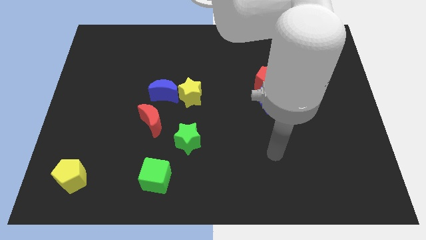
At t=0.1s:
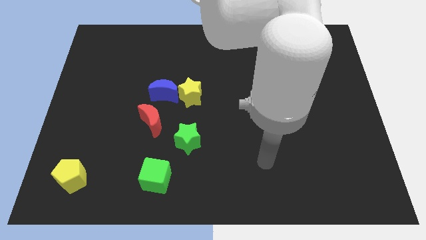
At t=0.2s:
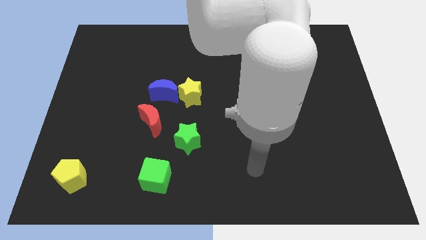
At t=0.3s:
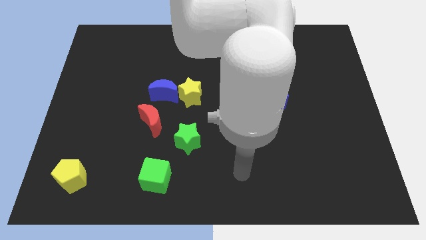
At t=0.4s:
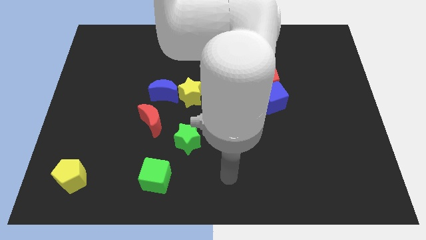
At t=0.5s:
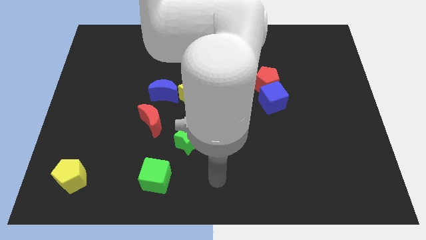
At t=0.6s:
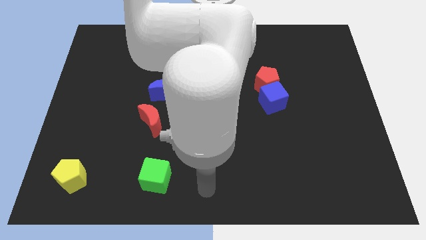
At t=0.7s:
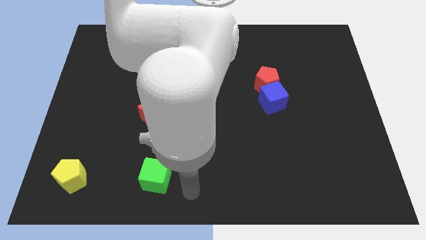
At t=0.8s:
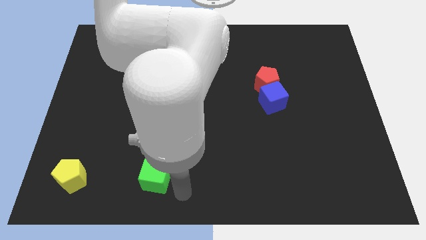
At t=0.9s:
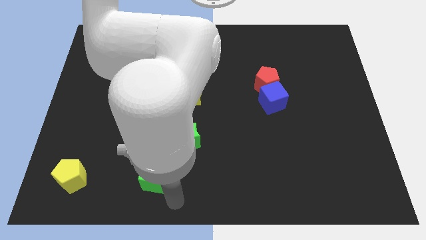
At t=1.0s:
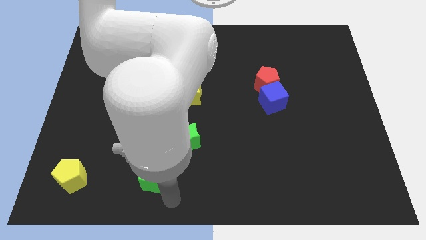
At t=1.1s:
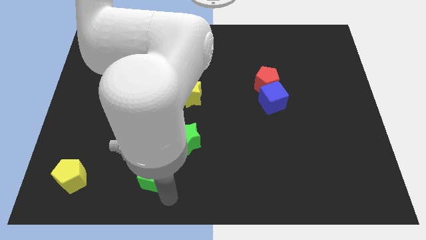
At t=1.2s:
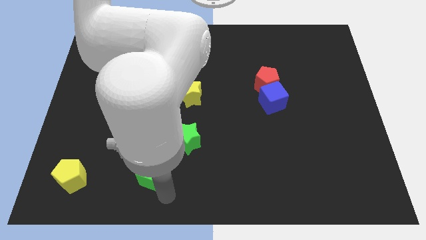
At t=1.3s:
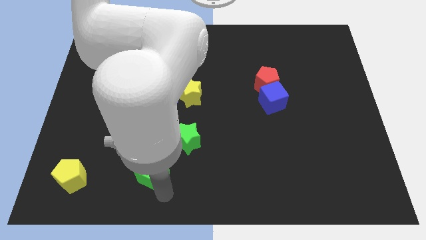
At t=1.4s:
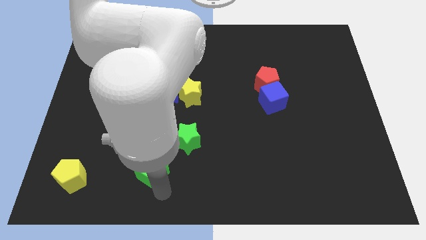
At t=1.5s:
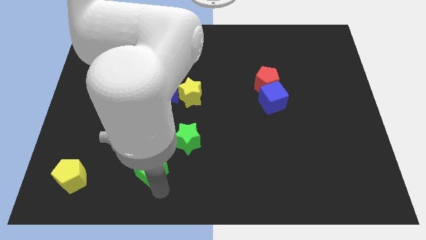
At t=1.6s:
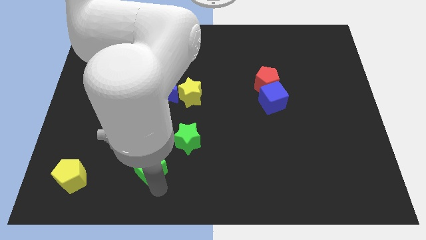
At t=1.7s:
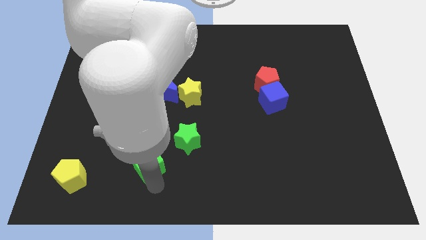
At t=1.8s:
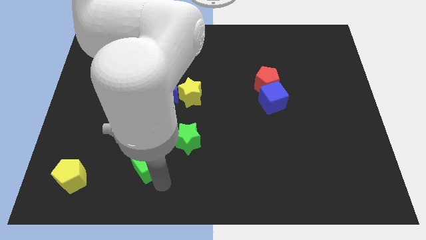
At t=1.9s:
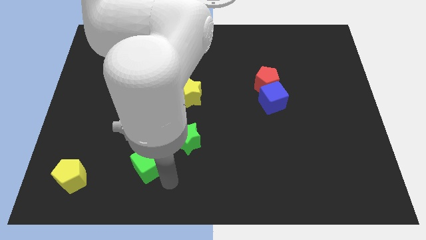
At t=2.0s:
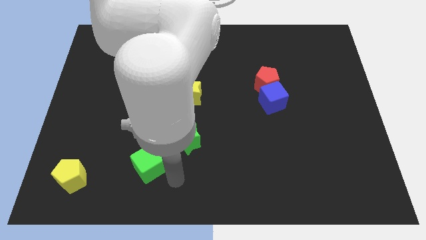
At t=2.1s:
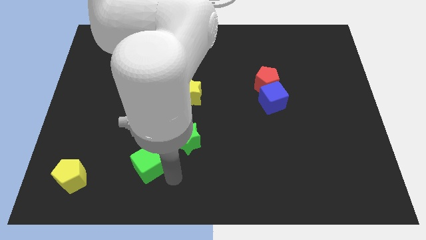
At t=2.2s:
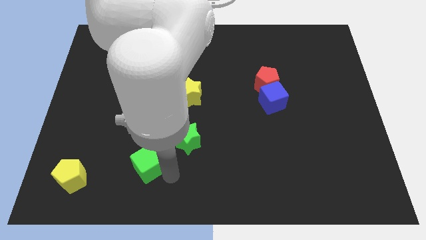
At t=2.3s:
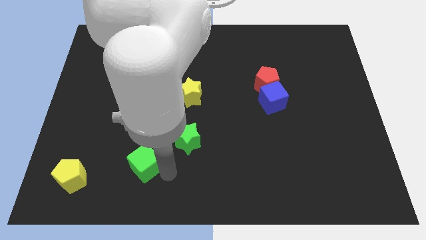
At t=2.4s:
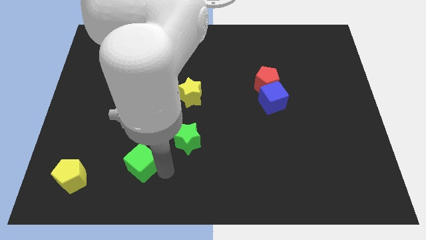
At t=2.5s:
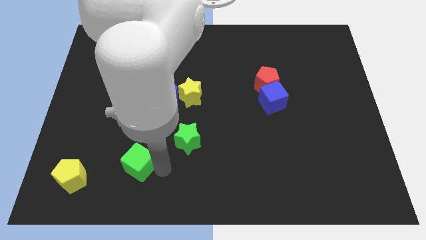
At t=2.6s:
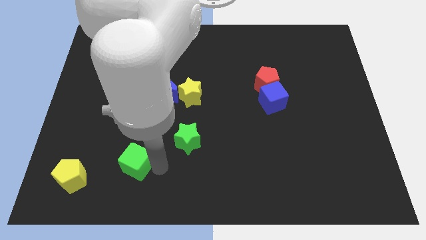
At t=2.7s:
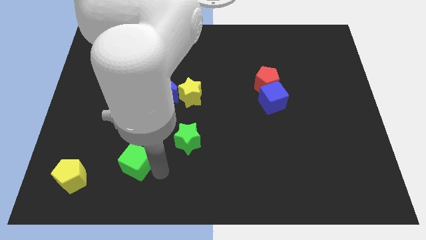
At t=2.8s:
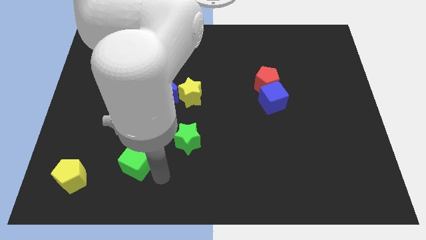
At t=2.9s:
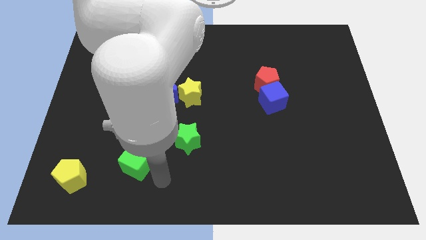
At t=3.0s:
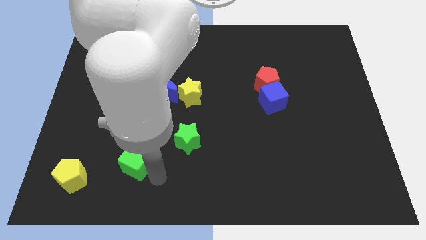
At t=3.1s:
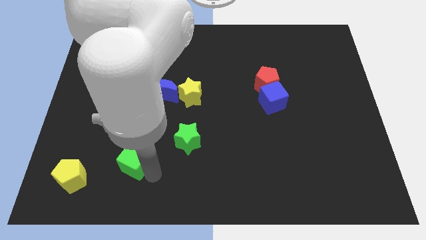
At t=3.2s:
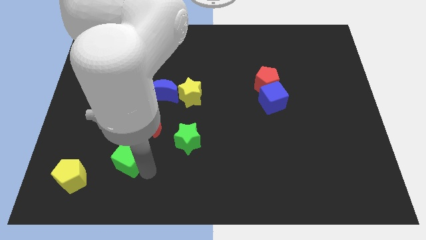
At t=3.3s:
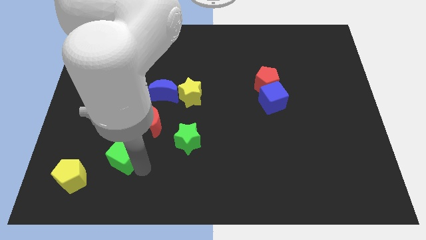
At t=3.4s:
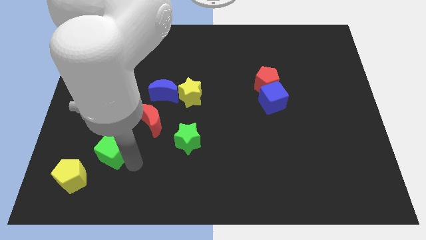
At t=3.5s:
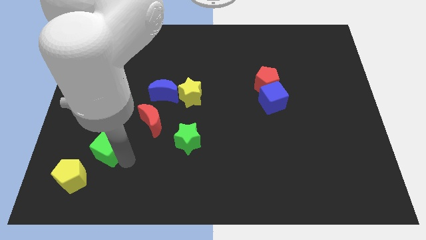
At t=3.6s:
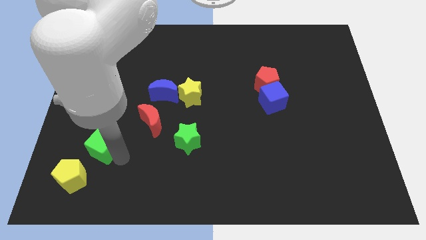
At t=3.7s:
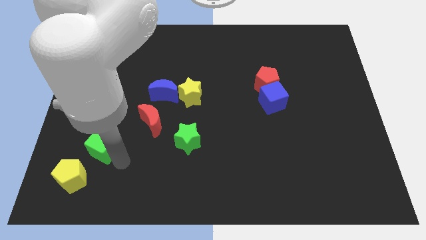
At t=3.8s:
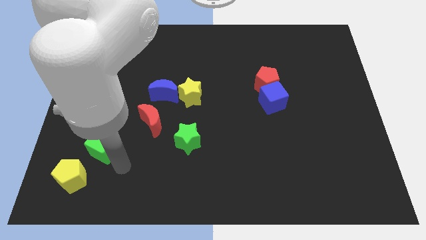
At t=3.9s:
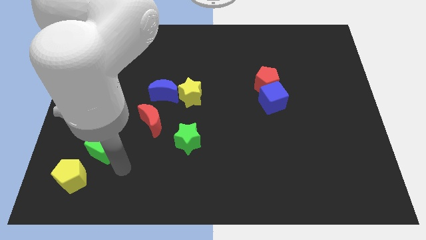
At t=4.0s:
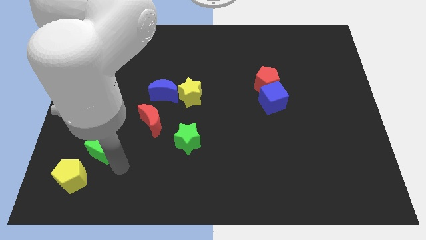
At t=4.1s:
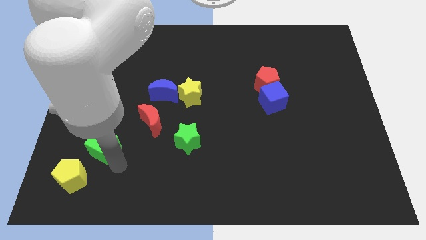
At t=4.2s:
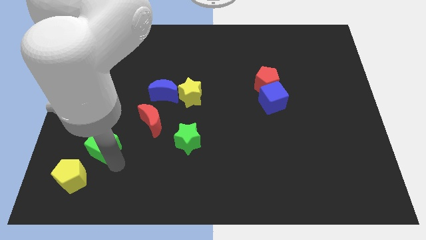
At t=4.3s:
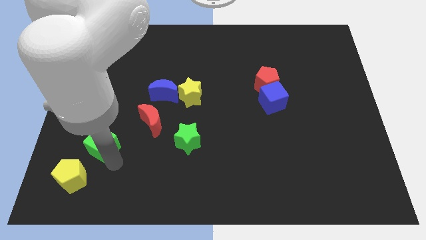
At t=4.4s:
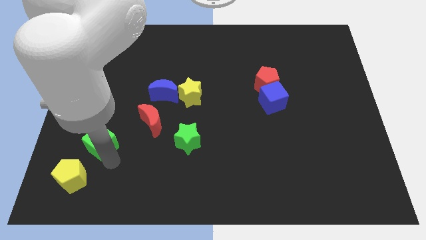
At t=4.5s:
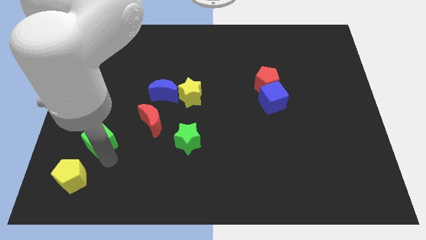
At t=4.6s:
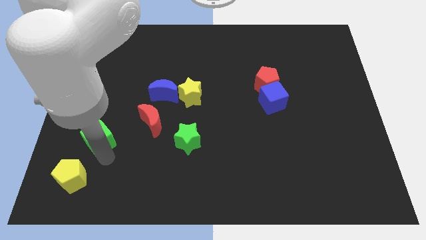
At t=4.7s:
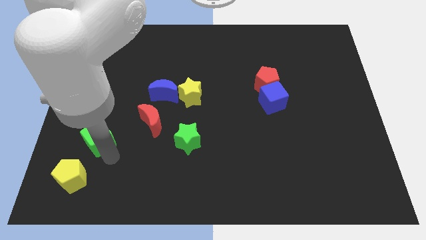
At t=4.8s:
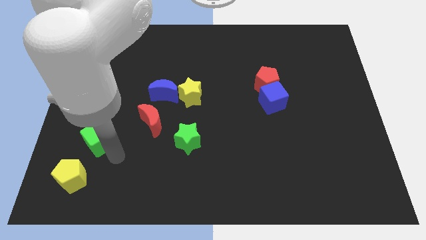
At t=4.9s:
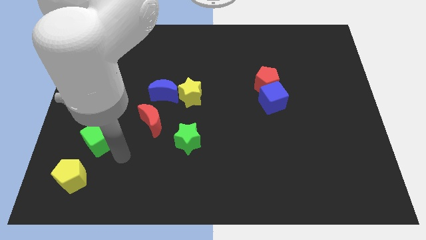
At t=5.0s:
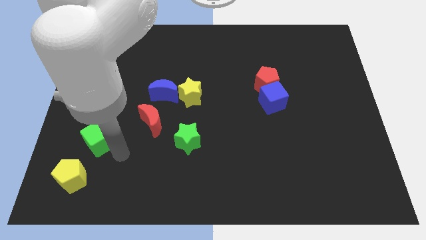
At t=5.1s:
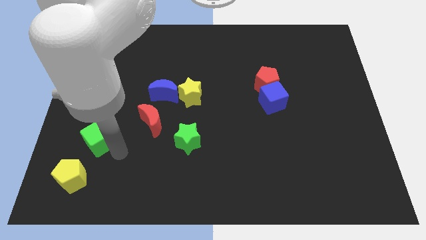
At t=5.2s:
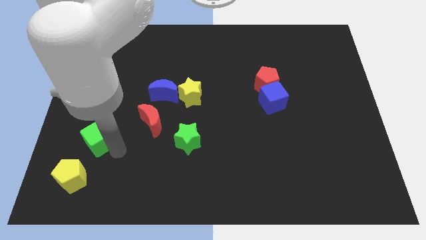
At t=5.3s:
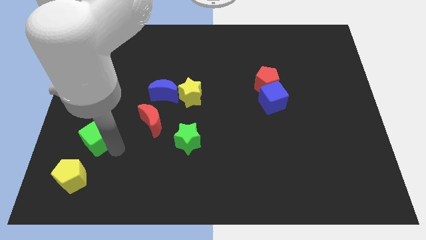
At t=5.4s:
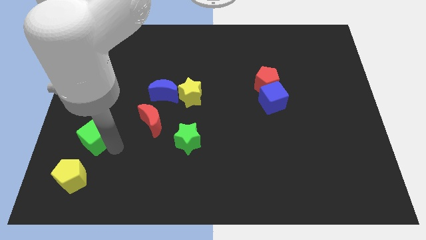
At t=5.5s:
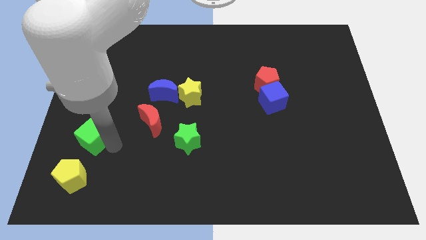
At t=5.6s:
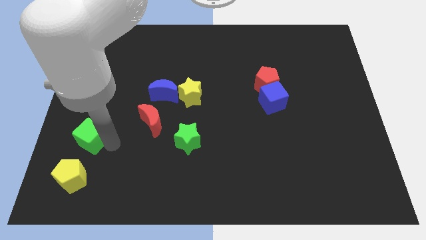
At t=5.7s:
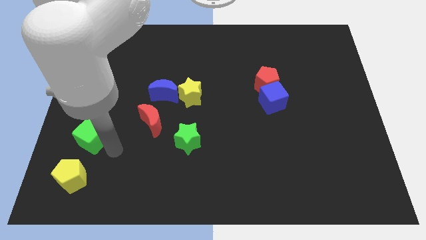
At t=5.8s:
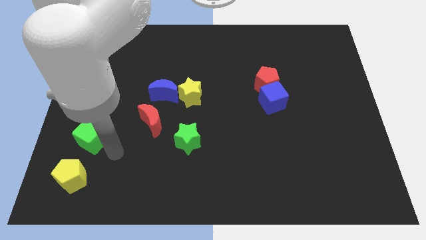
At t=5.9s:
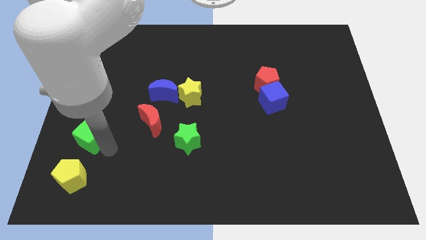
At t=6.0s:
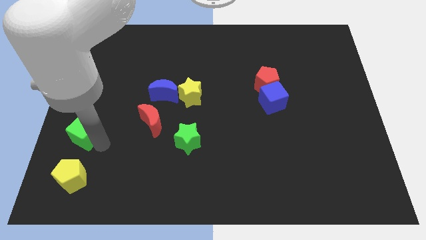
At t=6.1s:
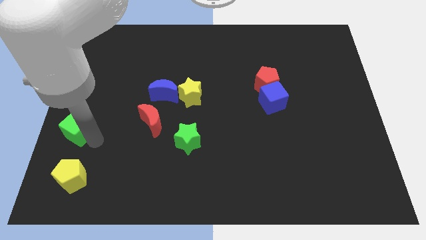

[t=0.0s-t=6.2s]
slide the green cube to the center left

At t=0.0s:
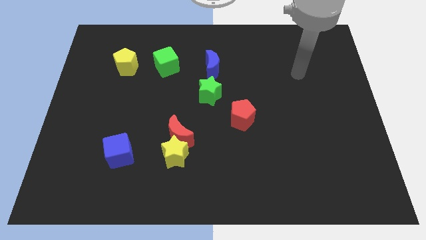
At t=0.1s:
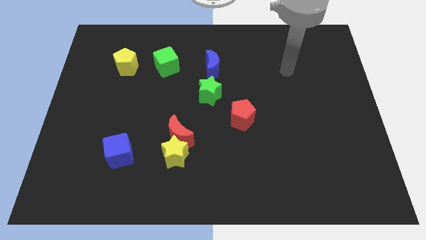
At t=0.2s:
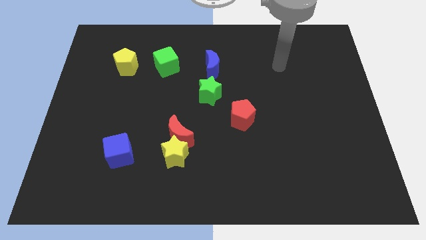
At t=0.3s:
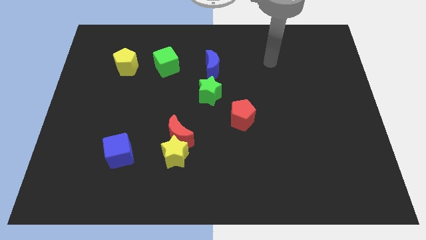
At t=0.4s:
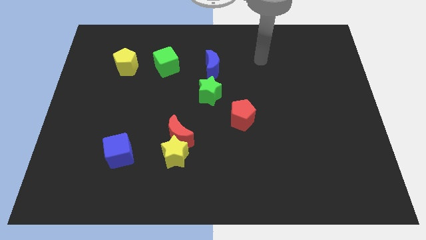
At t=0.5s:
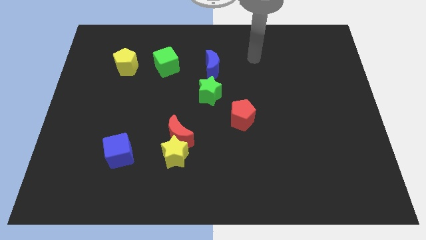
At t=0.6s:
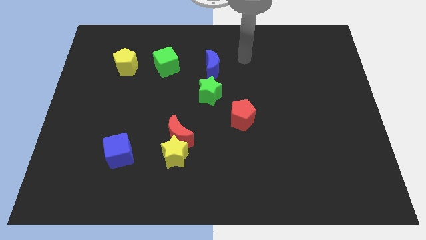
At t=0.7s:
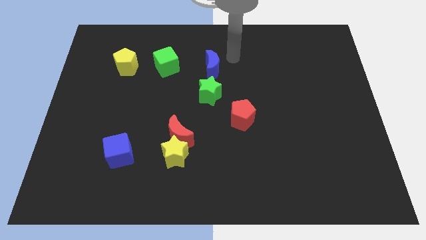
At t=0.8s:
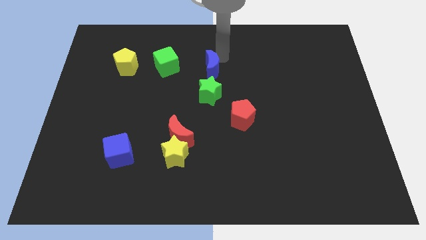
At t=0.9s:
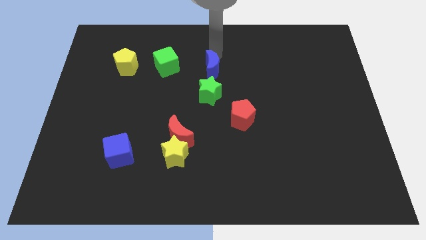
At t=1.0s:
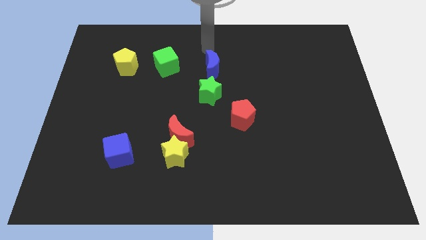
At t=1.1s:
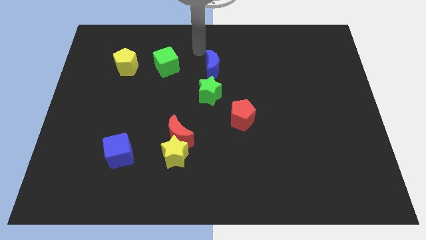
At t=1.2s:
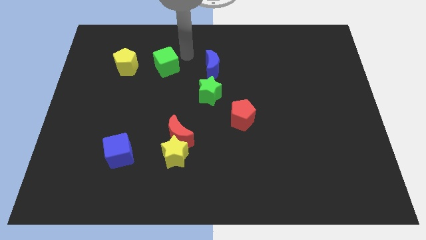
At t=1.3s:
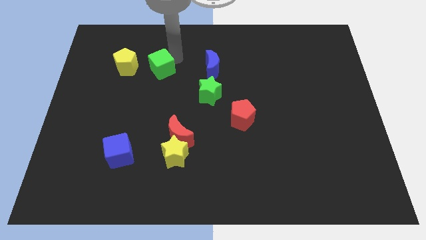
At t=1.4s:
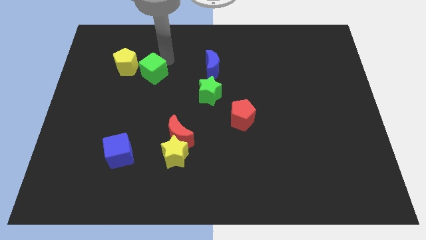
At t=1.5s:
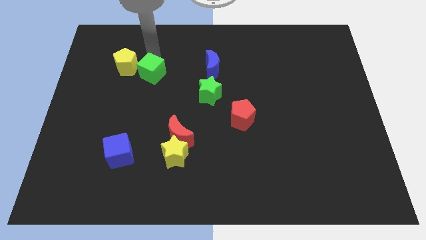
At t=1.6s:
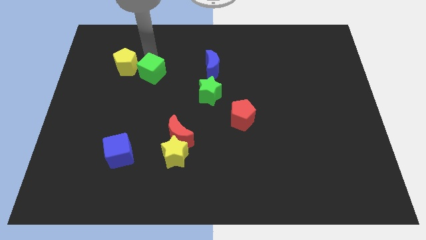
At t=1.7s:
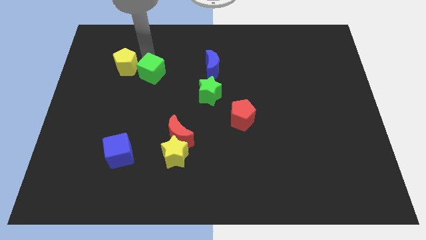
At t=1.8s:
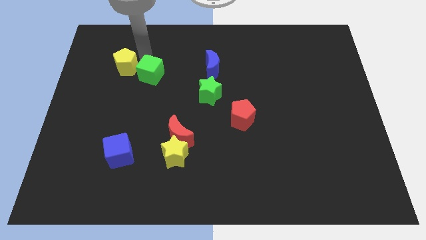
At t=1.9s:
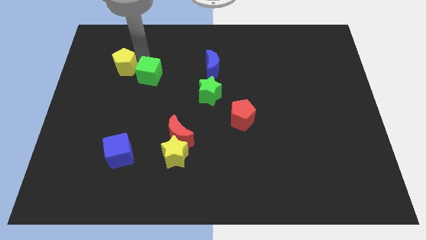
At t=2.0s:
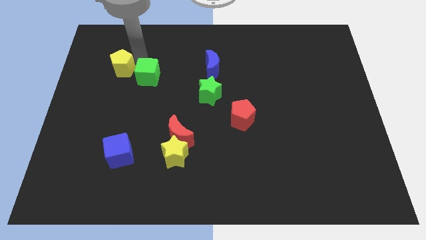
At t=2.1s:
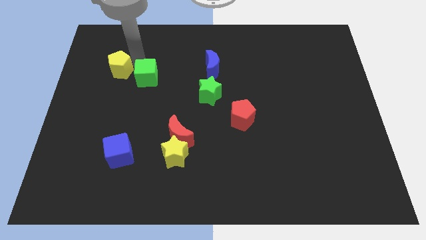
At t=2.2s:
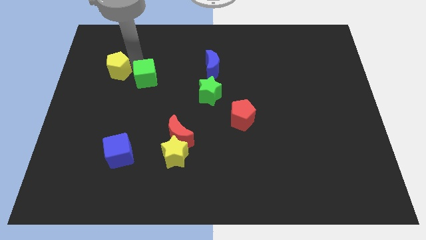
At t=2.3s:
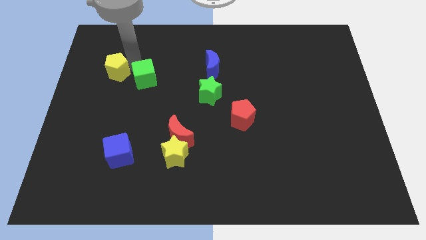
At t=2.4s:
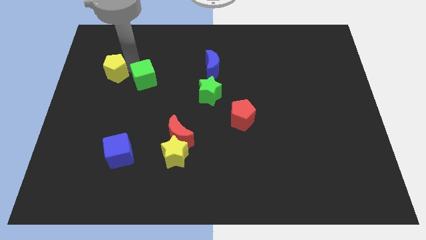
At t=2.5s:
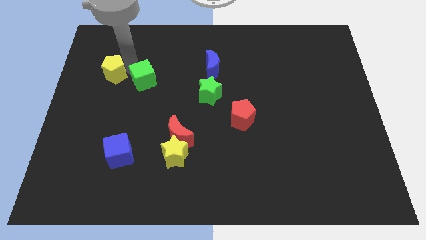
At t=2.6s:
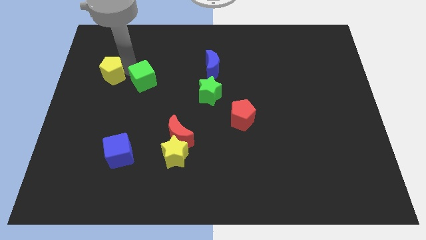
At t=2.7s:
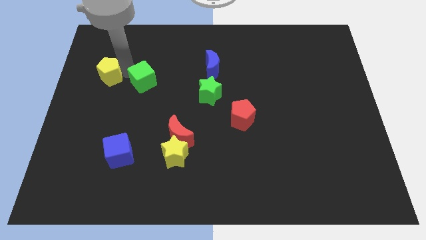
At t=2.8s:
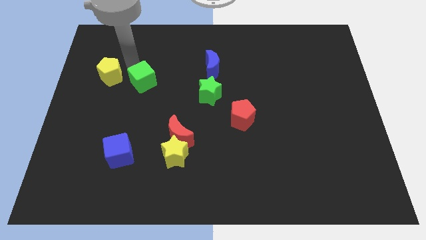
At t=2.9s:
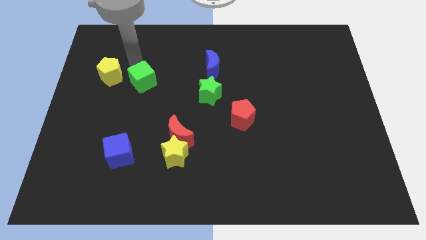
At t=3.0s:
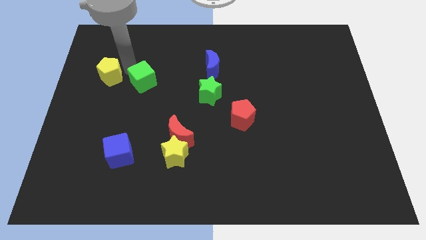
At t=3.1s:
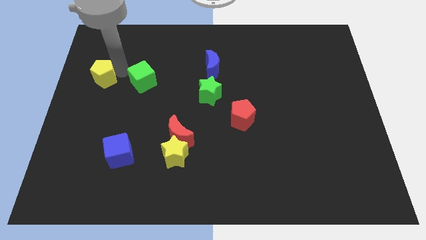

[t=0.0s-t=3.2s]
move the yellow pentagon to the center left
